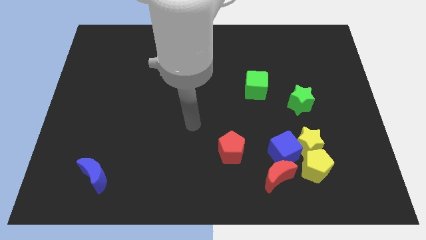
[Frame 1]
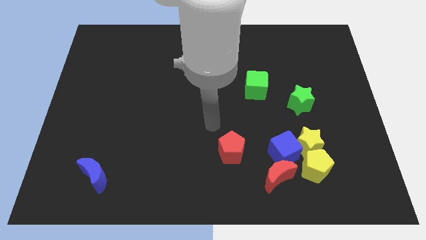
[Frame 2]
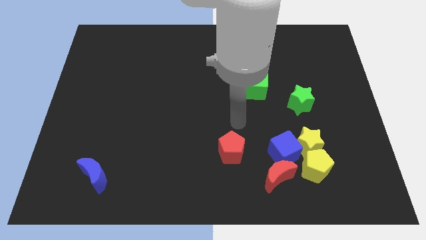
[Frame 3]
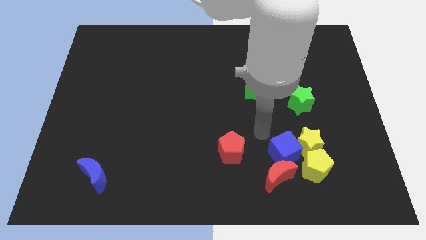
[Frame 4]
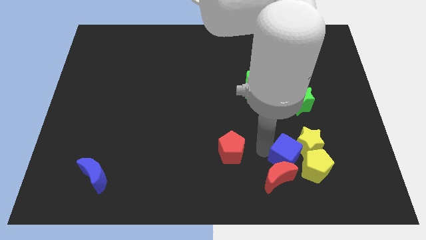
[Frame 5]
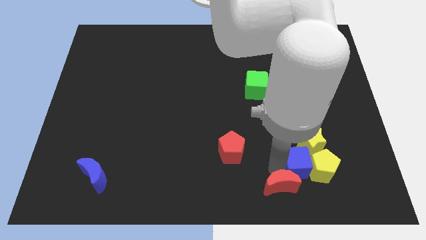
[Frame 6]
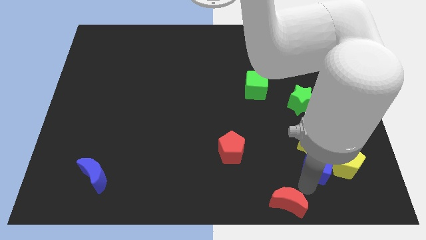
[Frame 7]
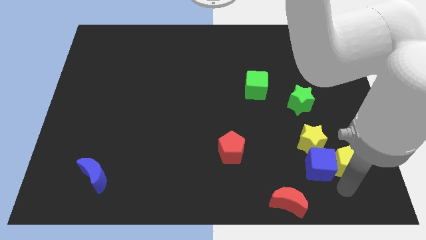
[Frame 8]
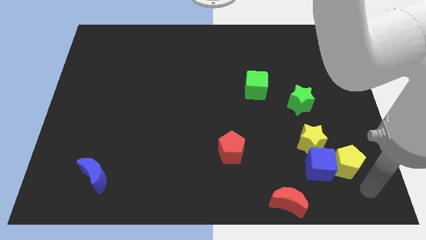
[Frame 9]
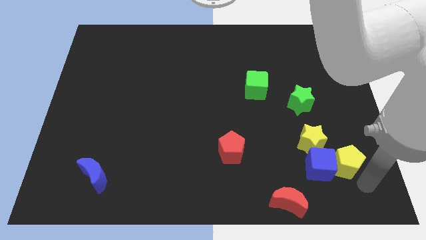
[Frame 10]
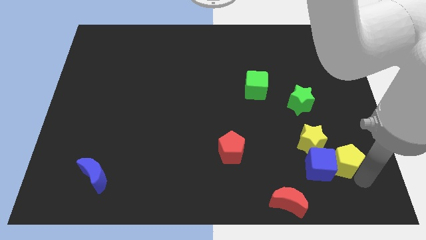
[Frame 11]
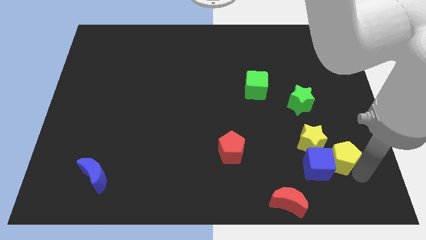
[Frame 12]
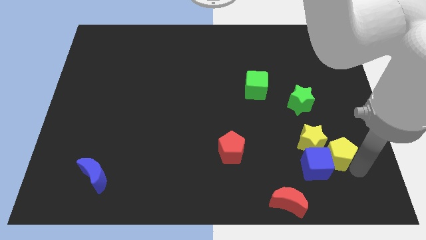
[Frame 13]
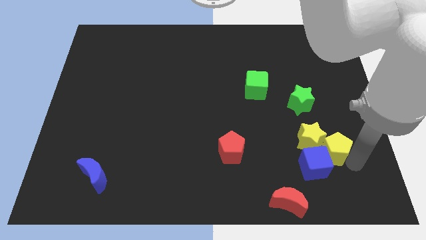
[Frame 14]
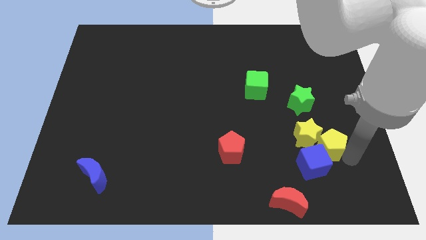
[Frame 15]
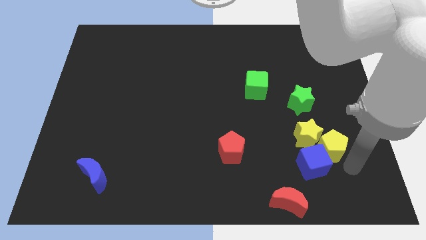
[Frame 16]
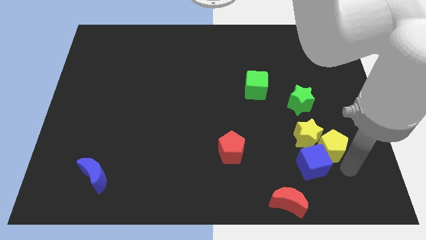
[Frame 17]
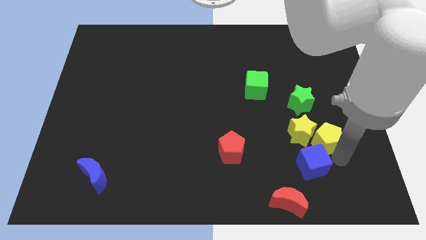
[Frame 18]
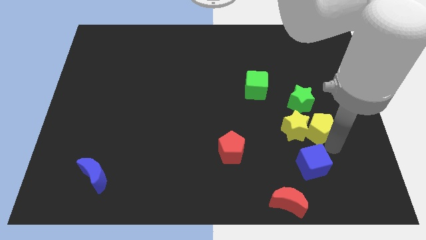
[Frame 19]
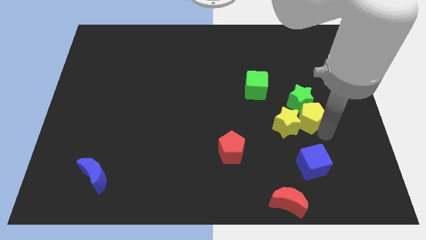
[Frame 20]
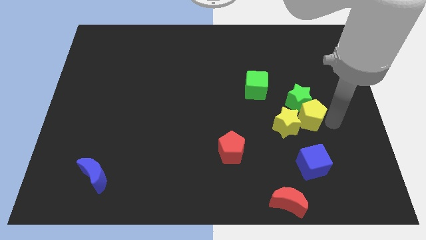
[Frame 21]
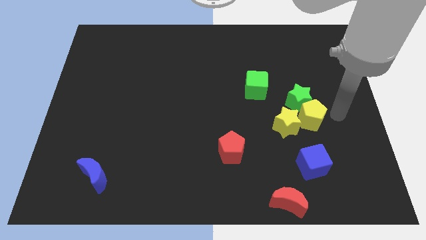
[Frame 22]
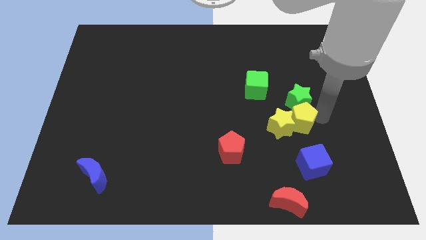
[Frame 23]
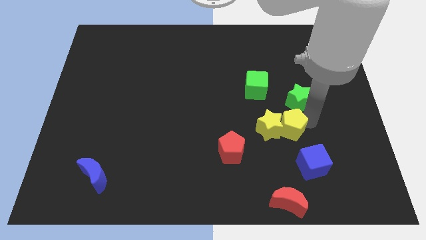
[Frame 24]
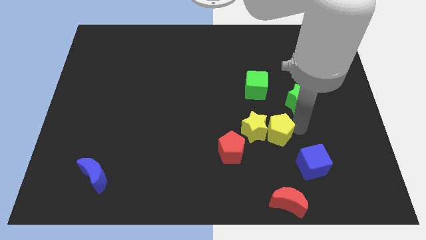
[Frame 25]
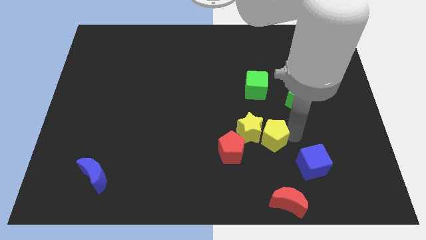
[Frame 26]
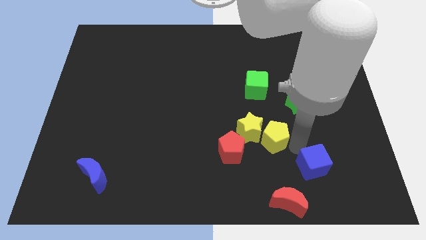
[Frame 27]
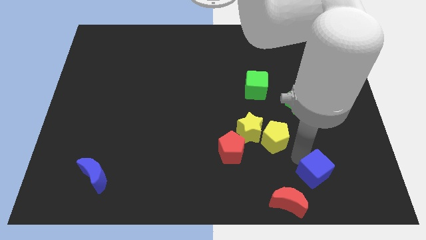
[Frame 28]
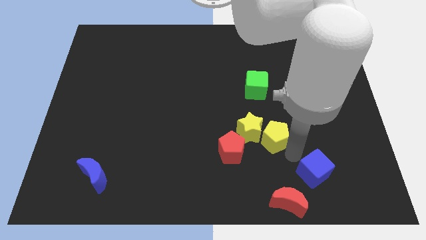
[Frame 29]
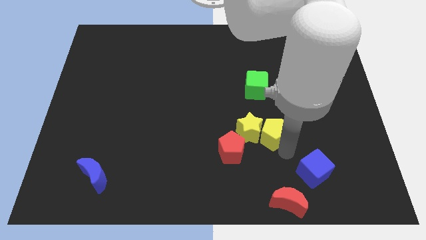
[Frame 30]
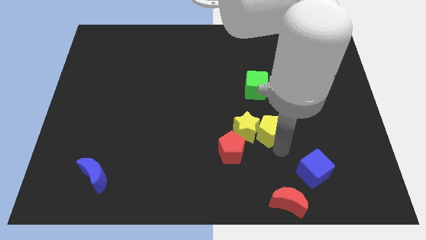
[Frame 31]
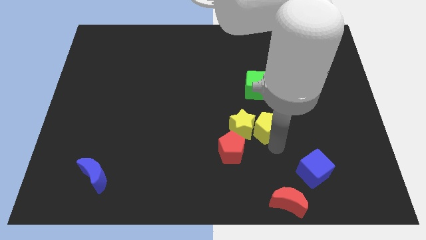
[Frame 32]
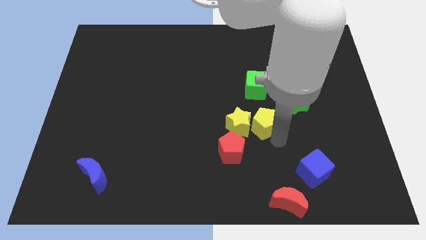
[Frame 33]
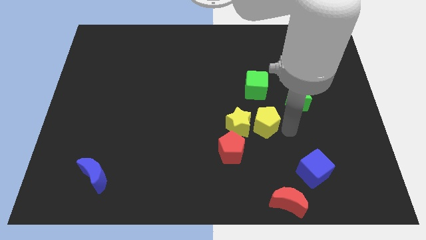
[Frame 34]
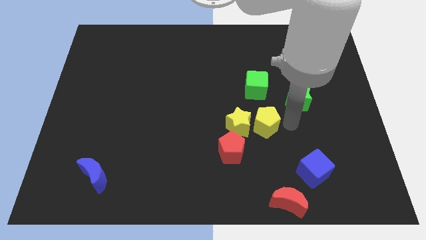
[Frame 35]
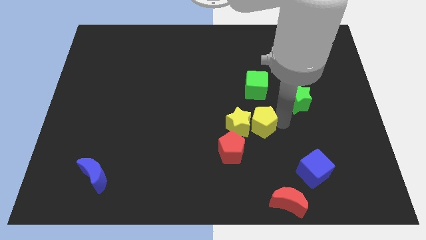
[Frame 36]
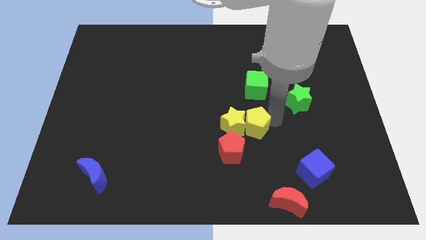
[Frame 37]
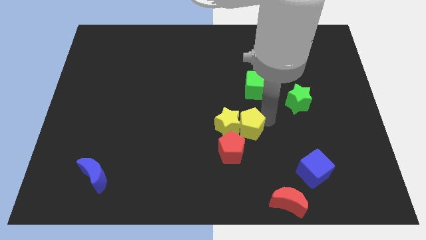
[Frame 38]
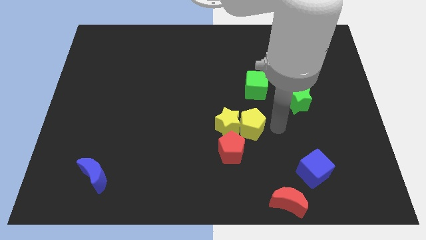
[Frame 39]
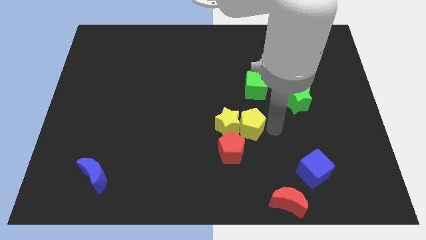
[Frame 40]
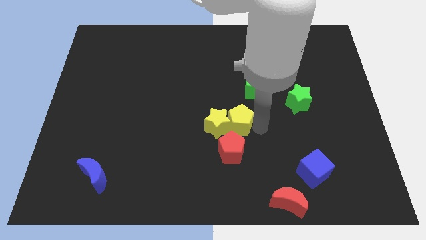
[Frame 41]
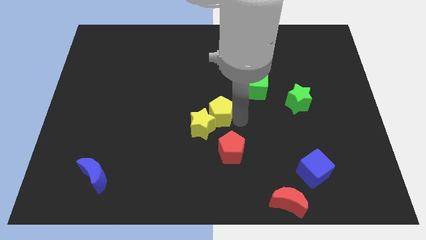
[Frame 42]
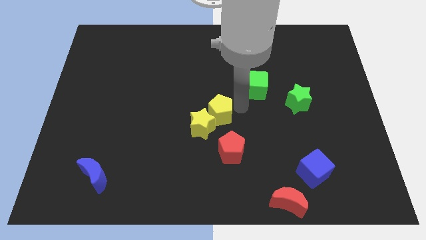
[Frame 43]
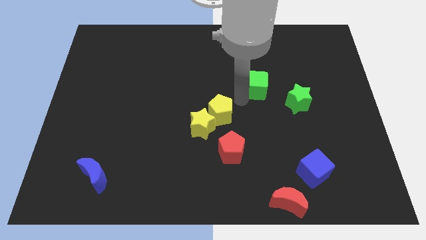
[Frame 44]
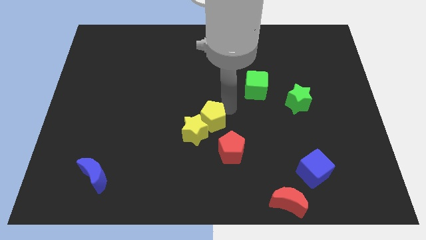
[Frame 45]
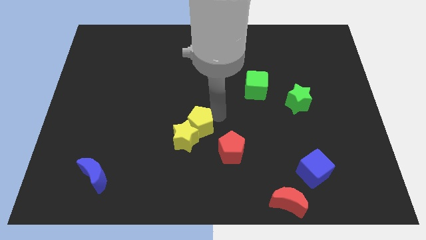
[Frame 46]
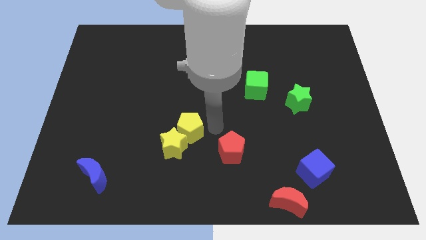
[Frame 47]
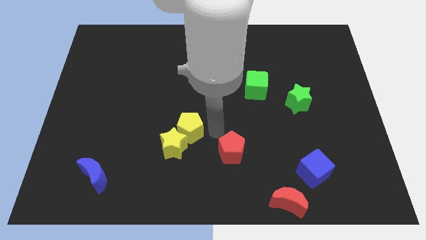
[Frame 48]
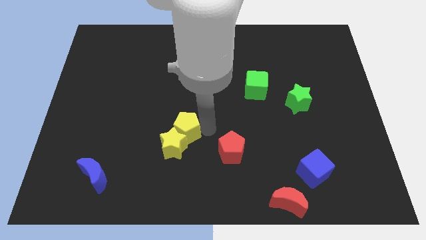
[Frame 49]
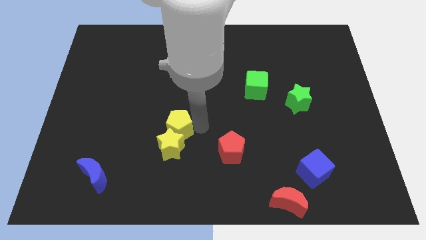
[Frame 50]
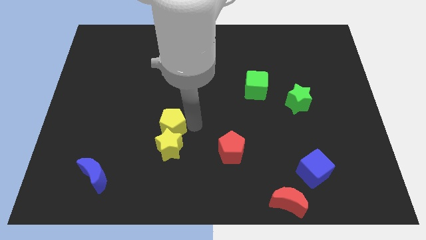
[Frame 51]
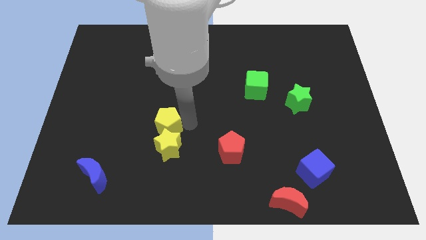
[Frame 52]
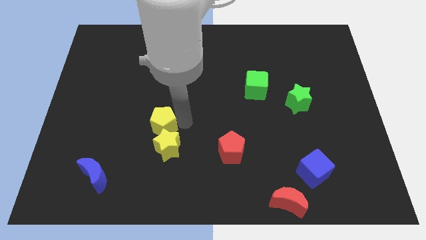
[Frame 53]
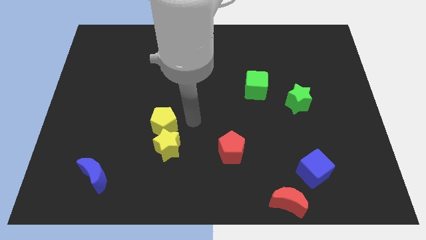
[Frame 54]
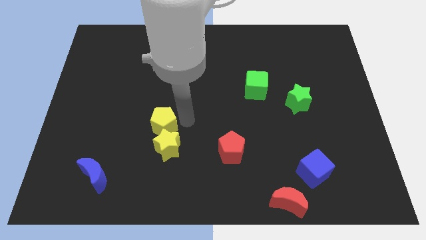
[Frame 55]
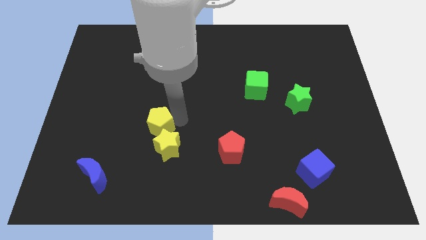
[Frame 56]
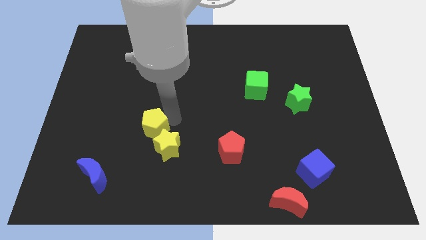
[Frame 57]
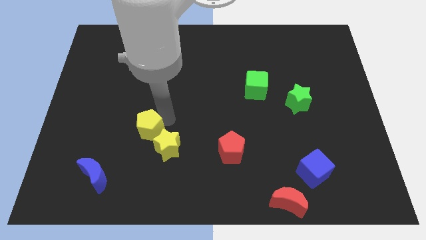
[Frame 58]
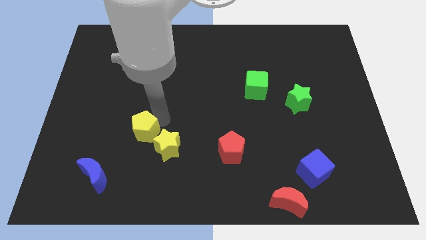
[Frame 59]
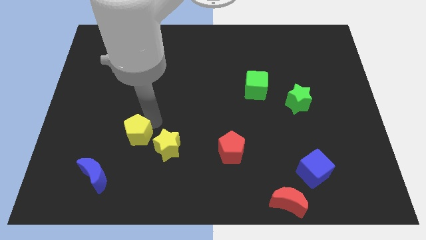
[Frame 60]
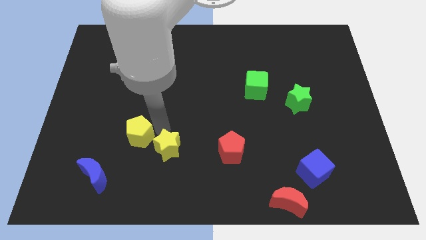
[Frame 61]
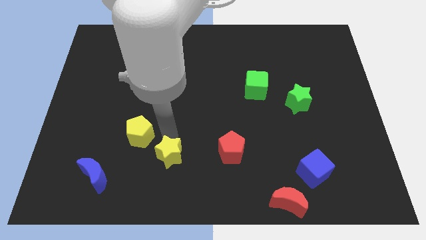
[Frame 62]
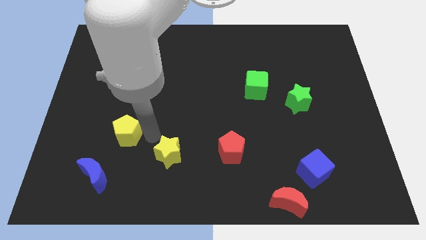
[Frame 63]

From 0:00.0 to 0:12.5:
slide the yellow pentagon to the top of the blue moon

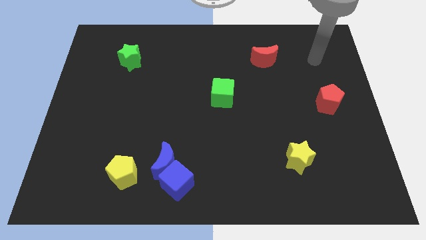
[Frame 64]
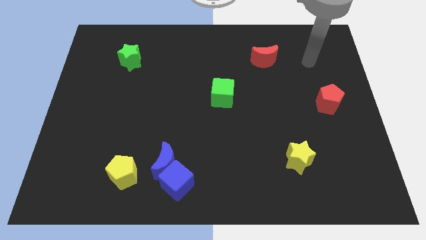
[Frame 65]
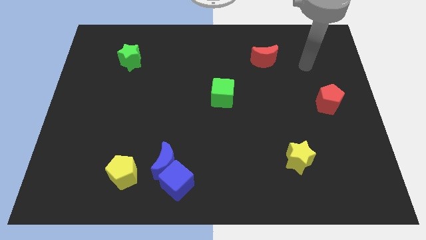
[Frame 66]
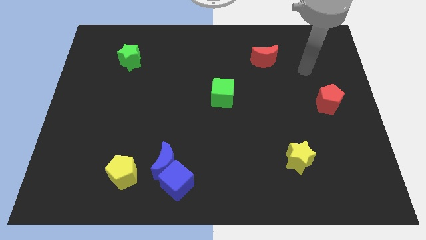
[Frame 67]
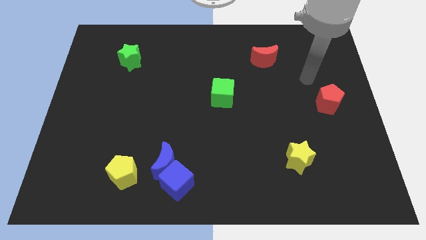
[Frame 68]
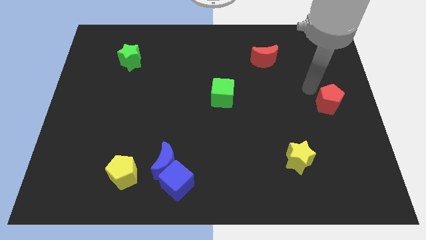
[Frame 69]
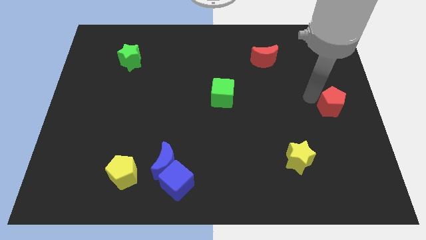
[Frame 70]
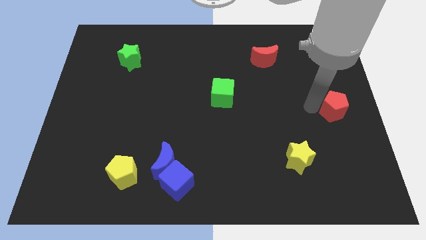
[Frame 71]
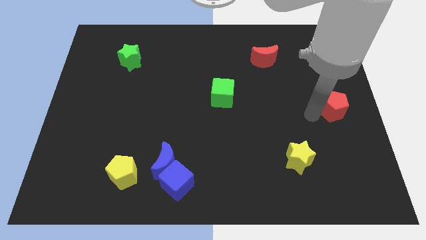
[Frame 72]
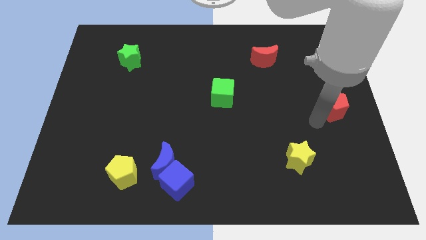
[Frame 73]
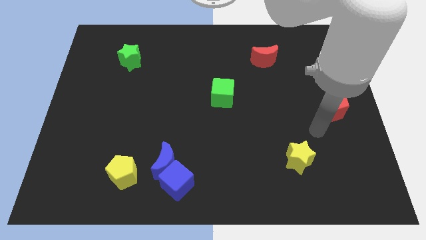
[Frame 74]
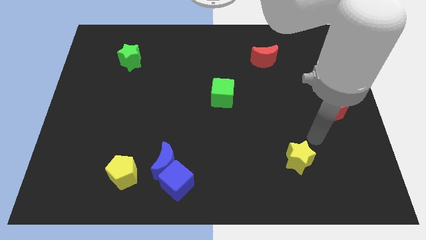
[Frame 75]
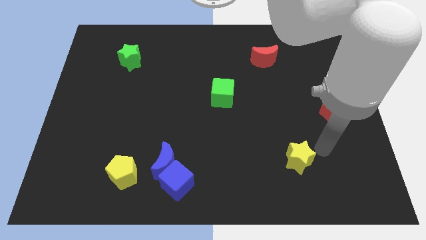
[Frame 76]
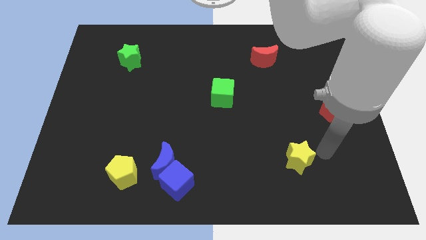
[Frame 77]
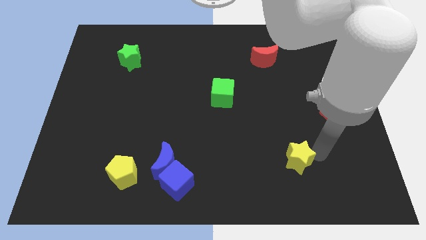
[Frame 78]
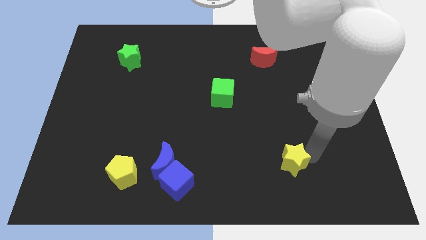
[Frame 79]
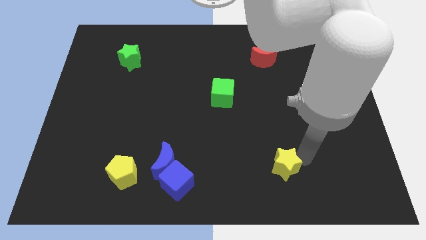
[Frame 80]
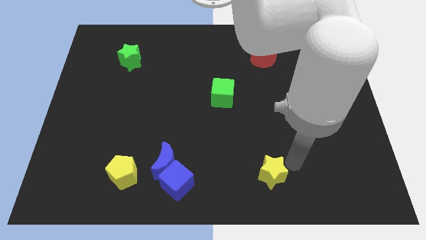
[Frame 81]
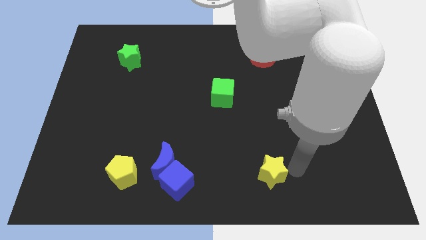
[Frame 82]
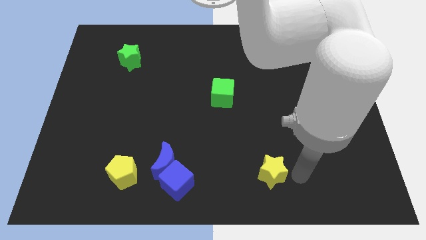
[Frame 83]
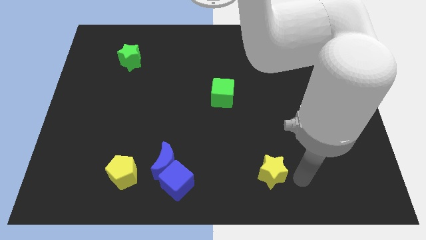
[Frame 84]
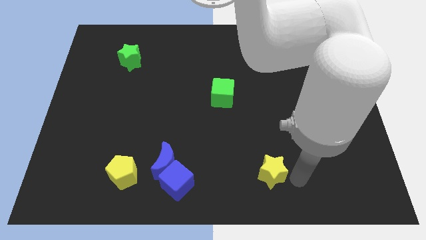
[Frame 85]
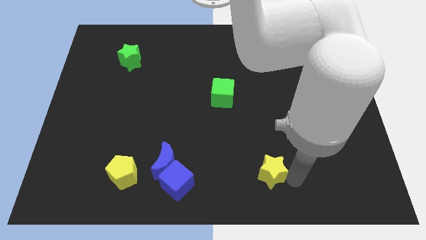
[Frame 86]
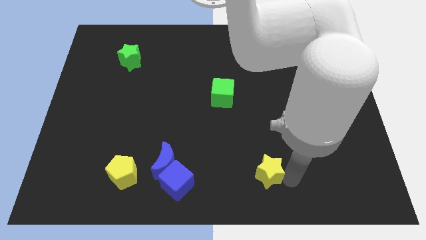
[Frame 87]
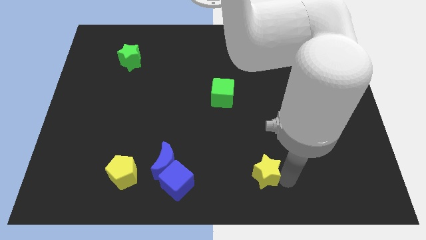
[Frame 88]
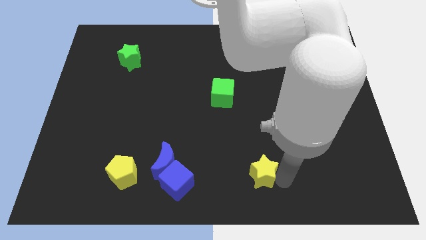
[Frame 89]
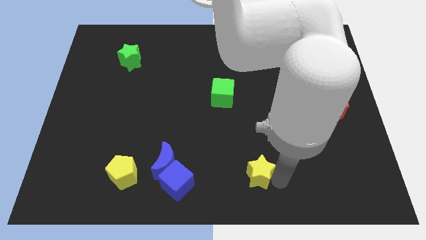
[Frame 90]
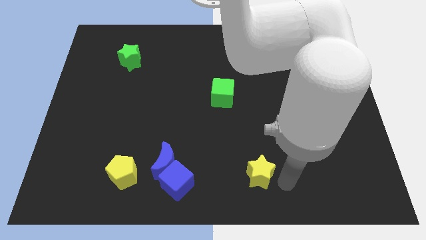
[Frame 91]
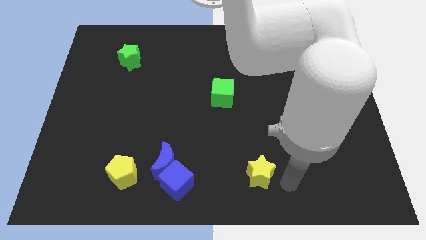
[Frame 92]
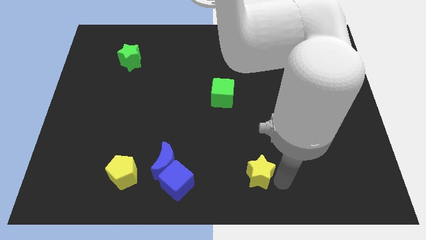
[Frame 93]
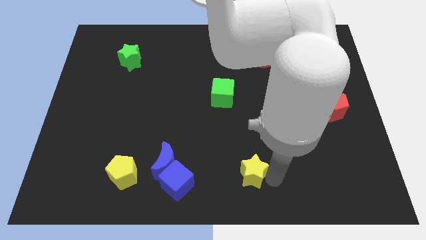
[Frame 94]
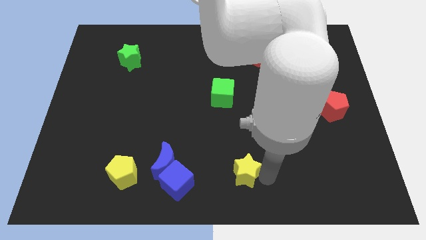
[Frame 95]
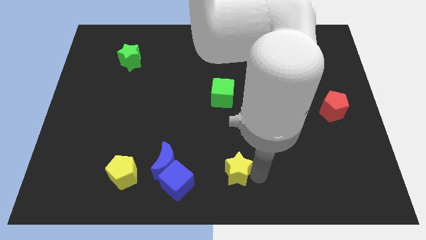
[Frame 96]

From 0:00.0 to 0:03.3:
put the yellow star to the right side of the blue moon
